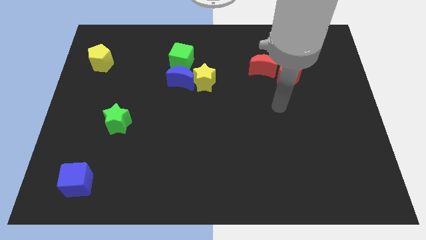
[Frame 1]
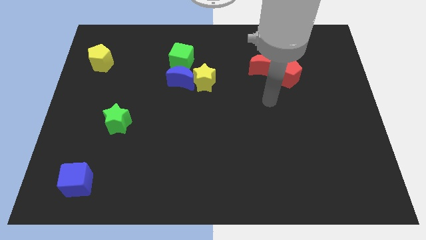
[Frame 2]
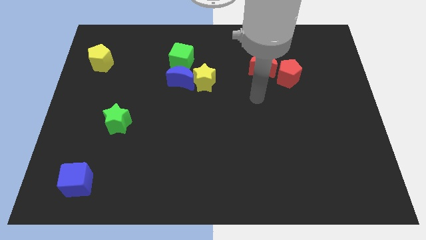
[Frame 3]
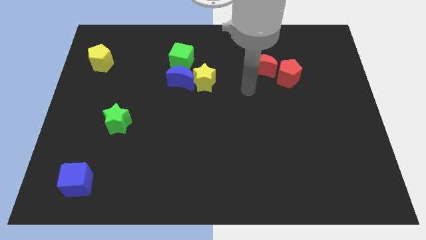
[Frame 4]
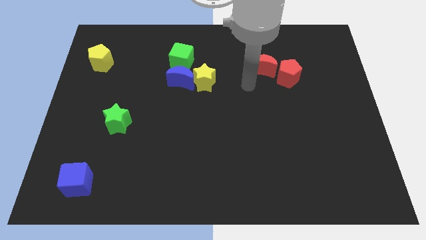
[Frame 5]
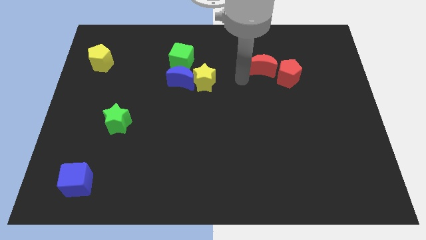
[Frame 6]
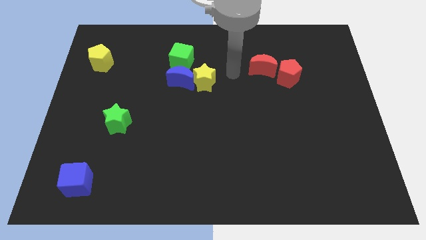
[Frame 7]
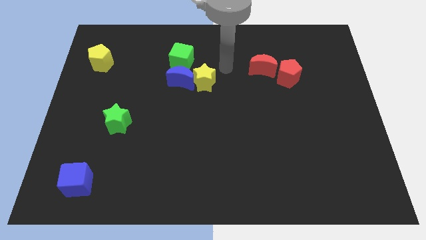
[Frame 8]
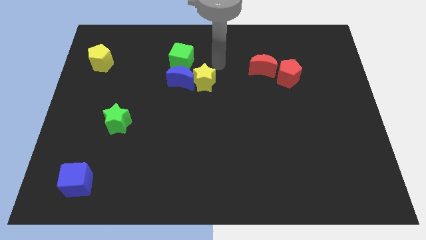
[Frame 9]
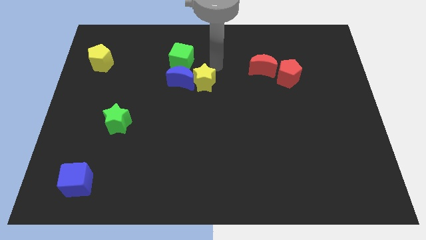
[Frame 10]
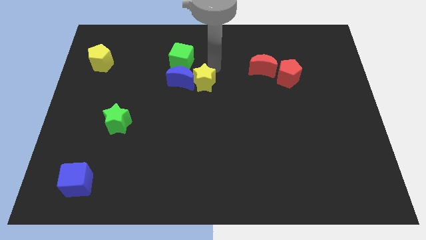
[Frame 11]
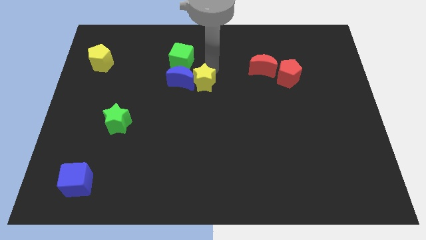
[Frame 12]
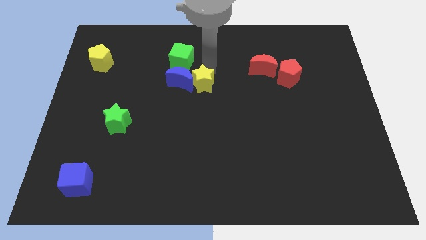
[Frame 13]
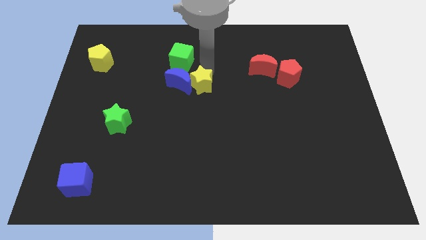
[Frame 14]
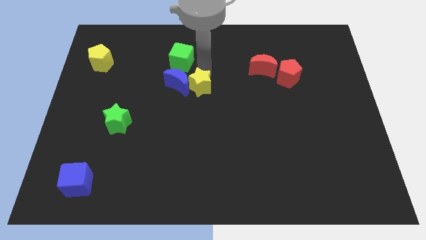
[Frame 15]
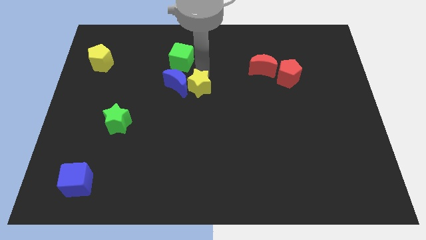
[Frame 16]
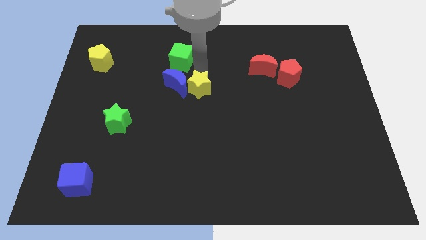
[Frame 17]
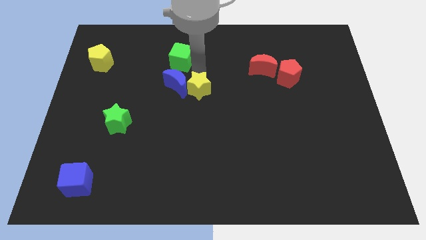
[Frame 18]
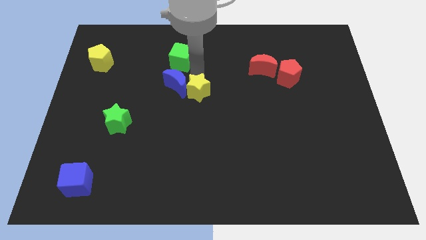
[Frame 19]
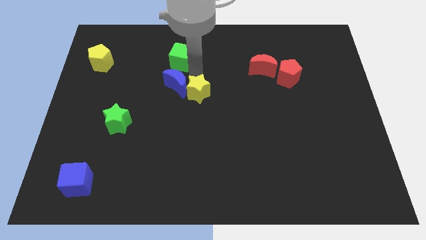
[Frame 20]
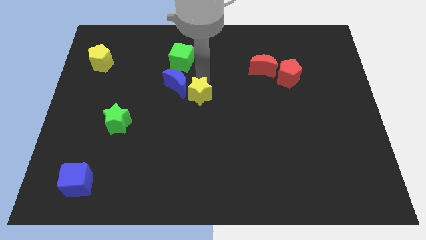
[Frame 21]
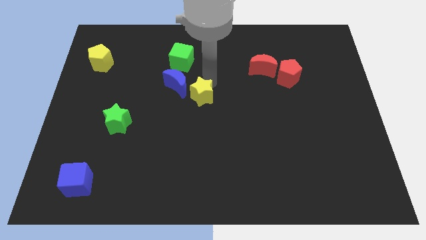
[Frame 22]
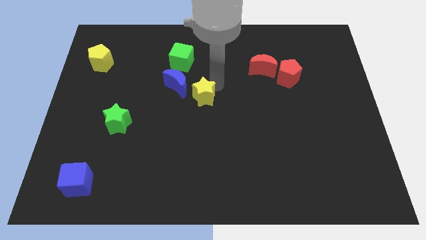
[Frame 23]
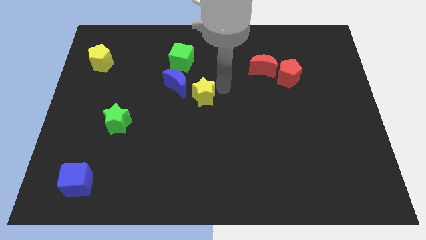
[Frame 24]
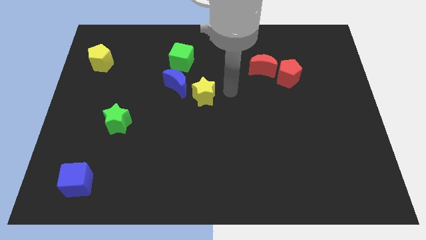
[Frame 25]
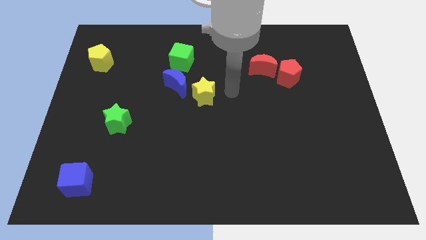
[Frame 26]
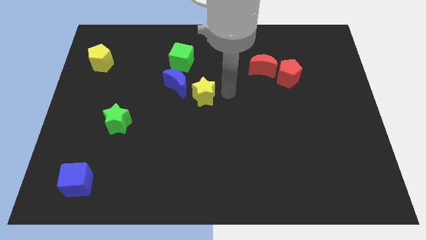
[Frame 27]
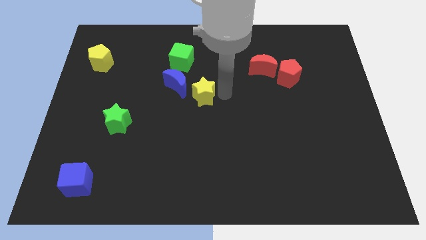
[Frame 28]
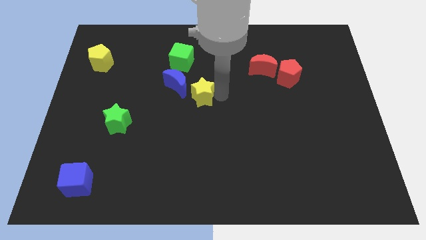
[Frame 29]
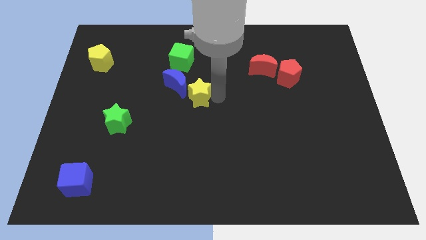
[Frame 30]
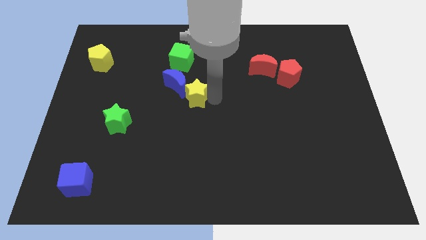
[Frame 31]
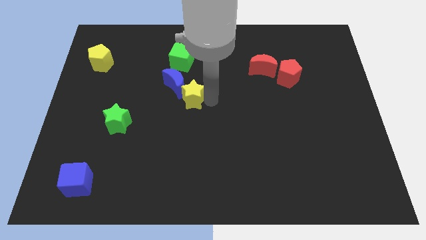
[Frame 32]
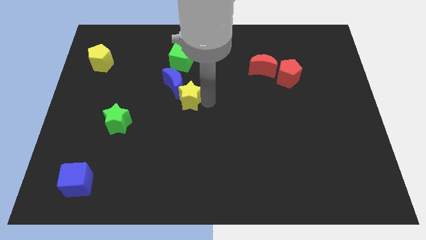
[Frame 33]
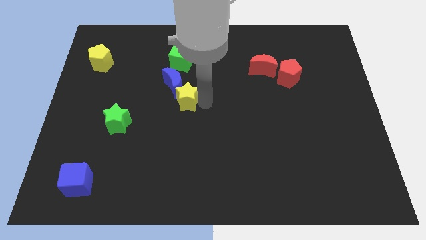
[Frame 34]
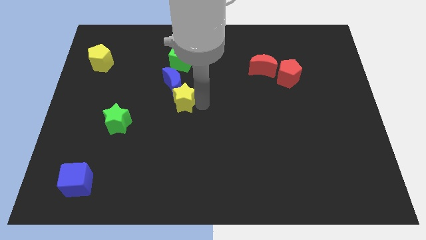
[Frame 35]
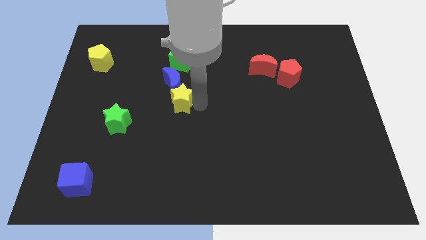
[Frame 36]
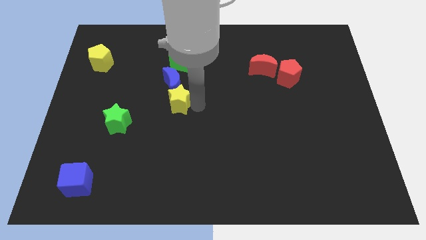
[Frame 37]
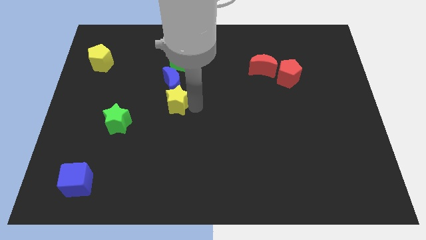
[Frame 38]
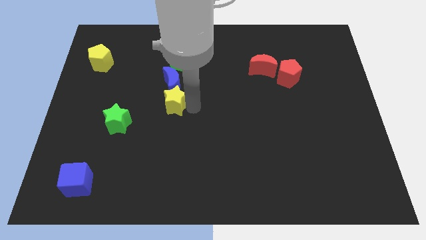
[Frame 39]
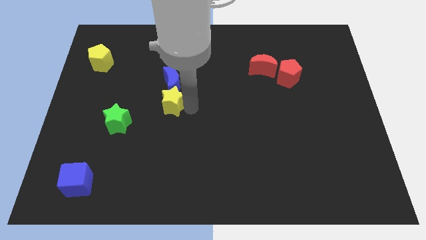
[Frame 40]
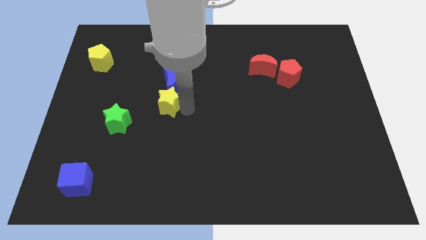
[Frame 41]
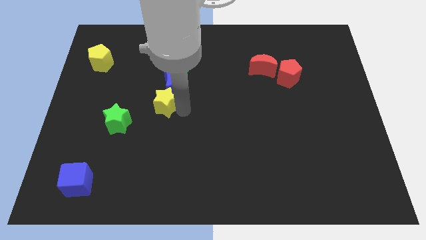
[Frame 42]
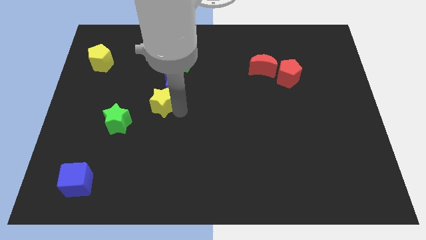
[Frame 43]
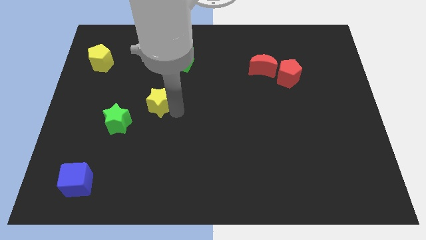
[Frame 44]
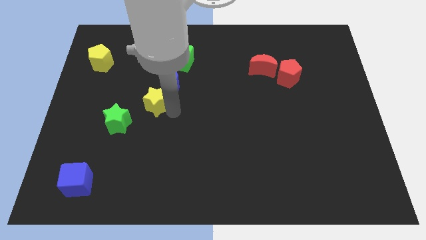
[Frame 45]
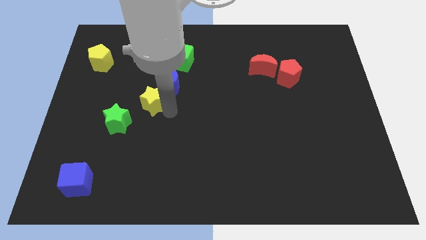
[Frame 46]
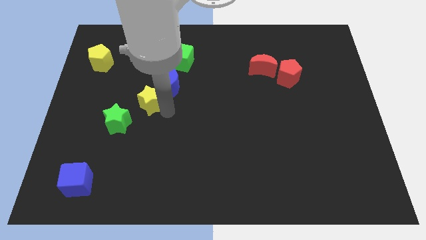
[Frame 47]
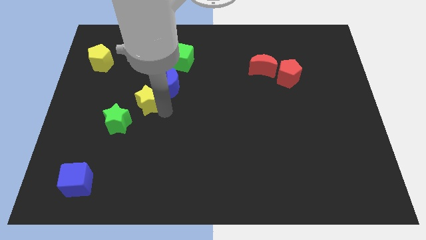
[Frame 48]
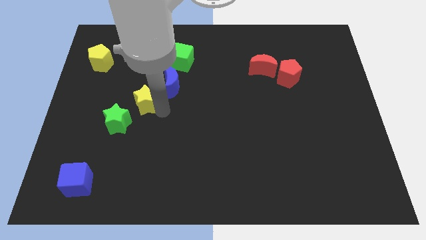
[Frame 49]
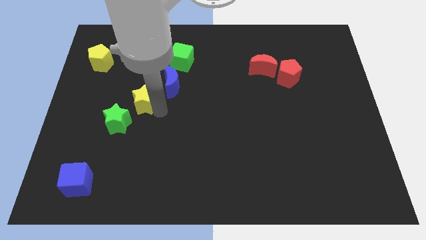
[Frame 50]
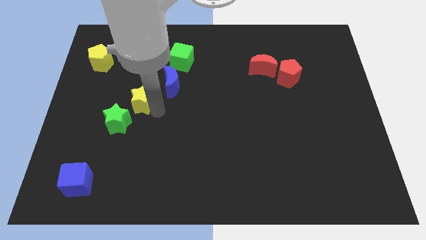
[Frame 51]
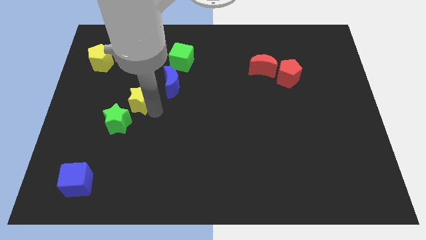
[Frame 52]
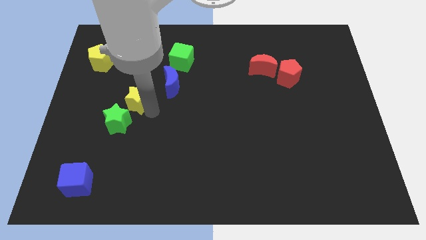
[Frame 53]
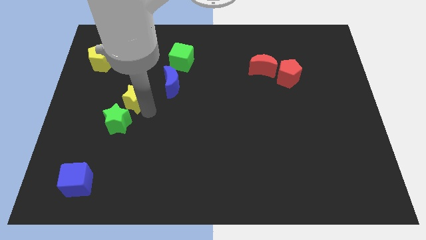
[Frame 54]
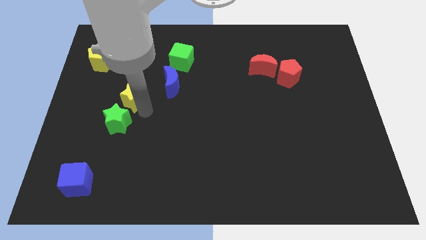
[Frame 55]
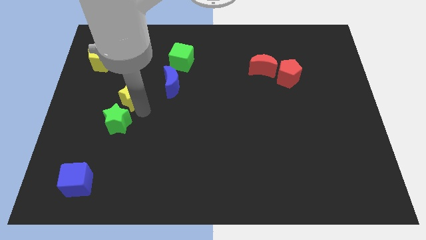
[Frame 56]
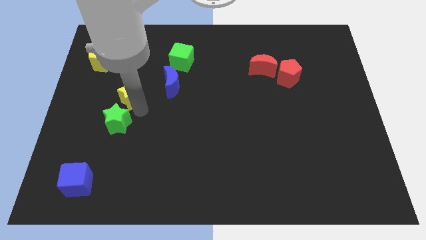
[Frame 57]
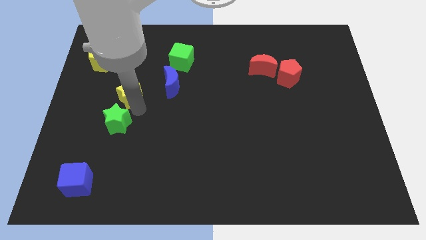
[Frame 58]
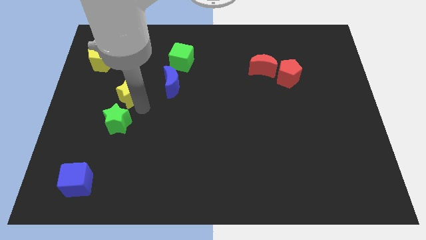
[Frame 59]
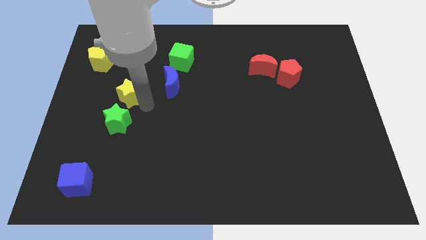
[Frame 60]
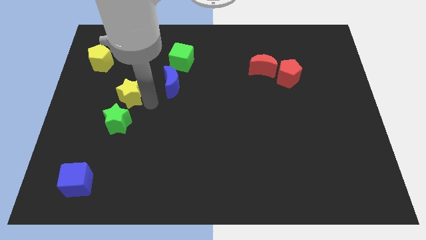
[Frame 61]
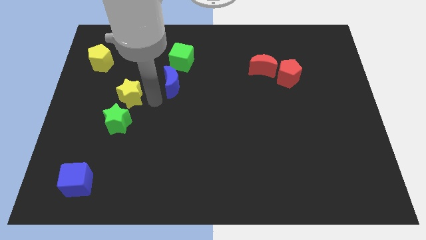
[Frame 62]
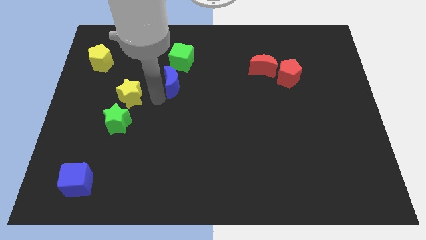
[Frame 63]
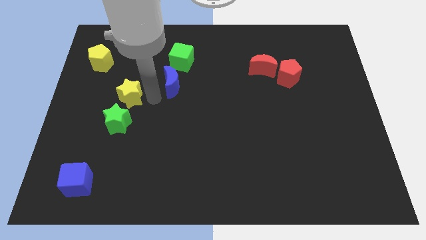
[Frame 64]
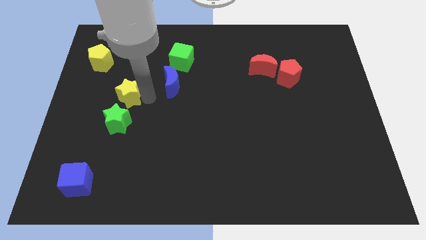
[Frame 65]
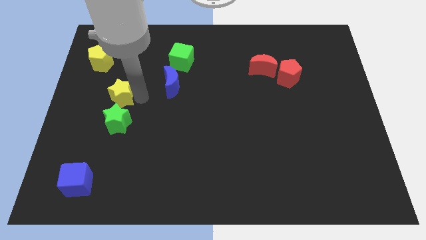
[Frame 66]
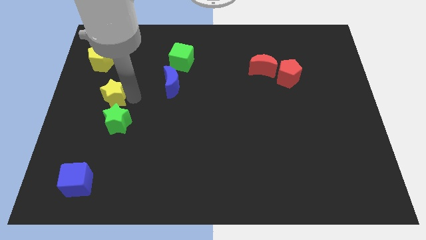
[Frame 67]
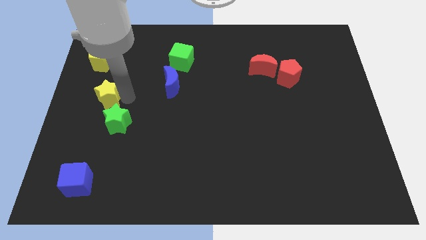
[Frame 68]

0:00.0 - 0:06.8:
slide the yellow star to the left side
